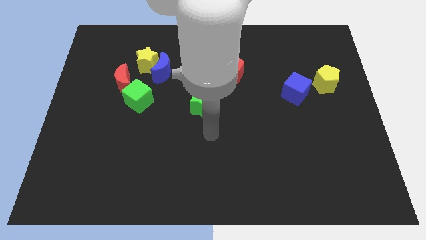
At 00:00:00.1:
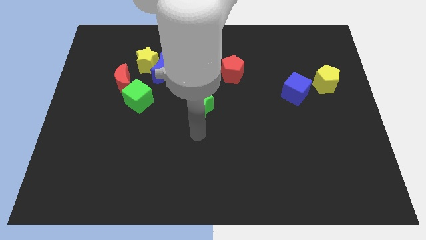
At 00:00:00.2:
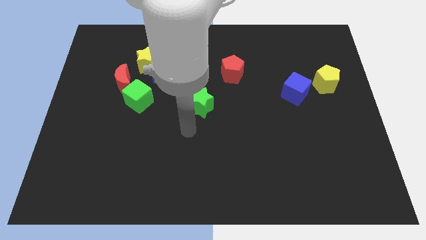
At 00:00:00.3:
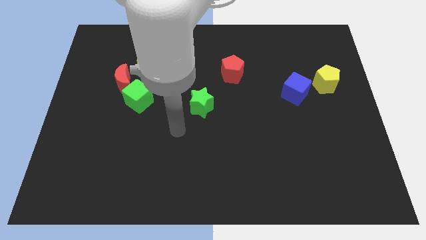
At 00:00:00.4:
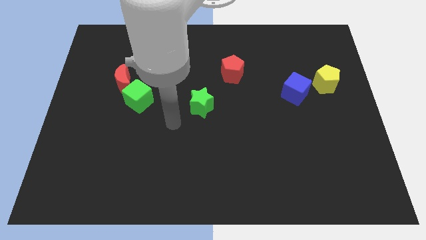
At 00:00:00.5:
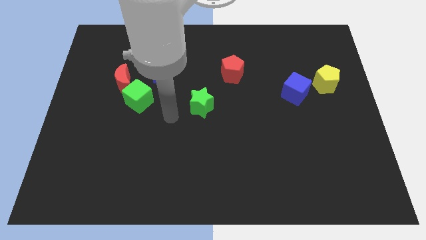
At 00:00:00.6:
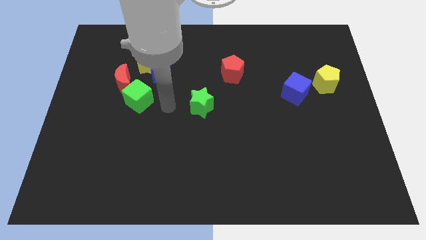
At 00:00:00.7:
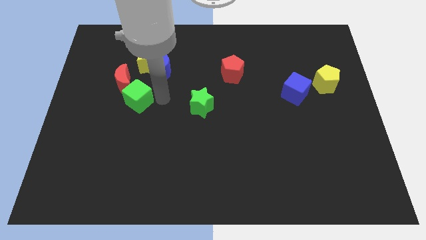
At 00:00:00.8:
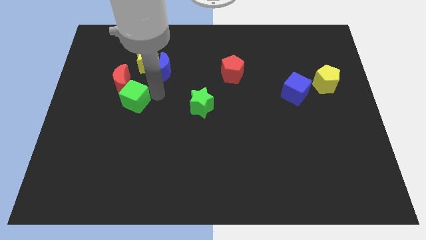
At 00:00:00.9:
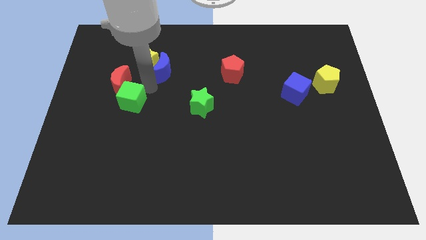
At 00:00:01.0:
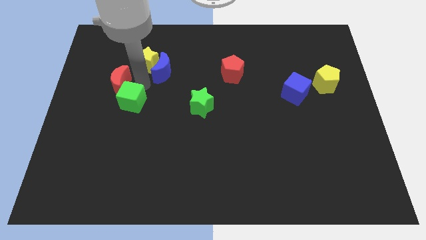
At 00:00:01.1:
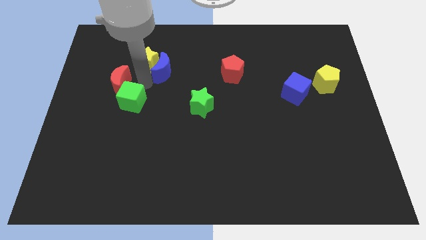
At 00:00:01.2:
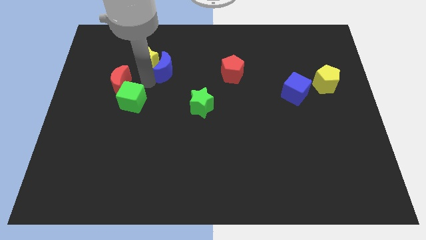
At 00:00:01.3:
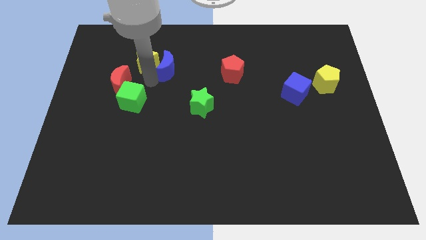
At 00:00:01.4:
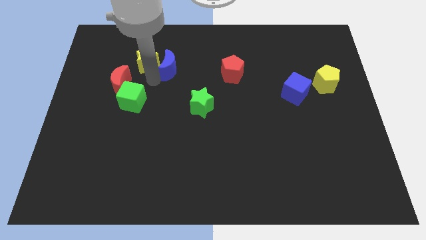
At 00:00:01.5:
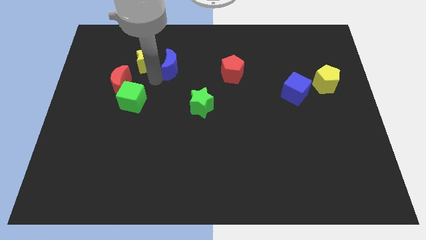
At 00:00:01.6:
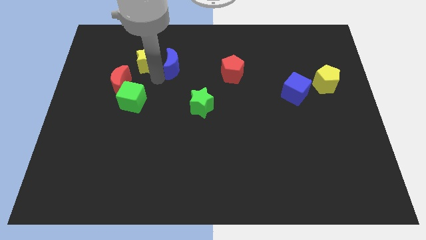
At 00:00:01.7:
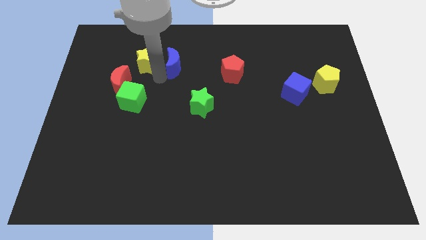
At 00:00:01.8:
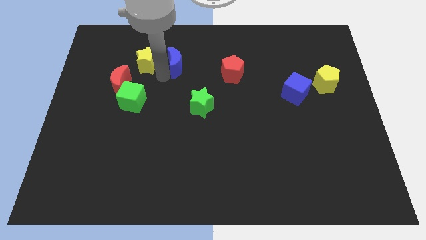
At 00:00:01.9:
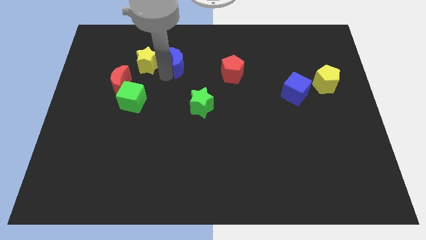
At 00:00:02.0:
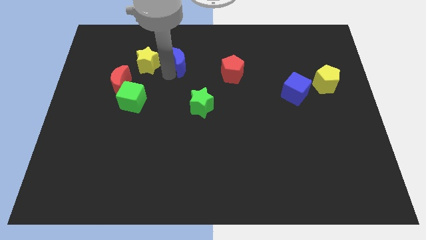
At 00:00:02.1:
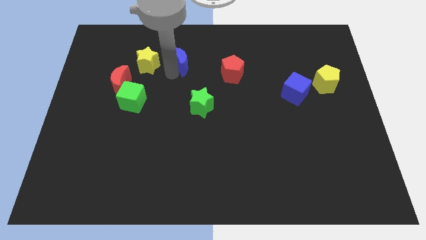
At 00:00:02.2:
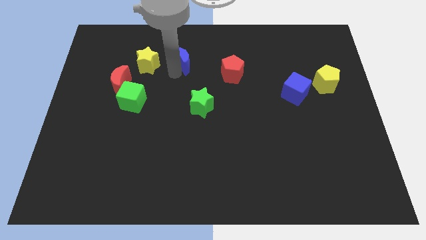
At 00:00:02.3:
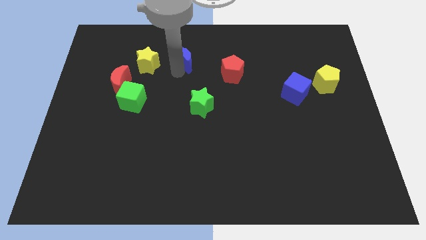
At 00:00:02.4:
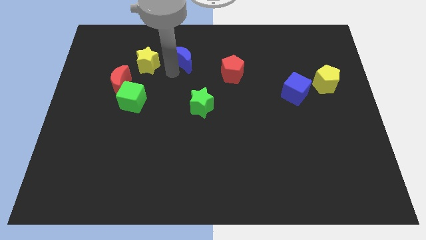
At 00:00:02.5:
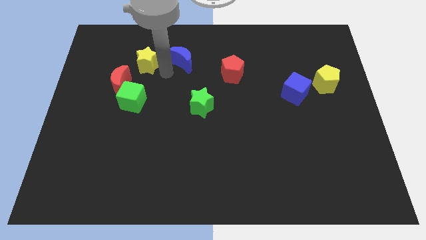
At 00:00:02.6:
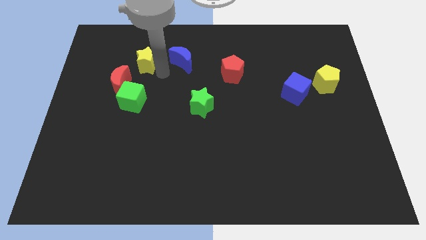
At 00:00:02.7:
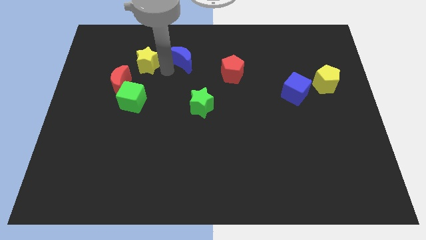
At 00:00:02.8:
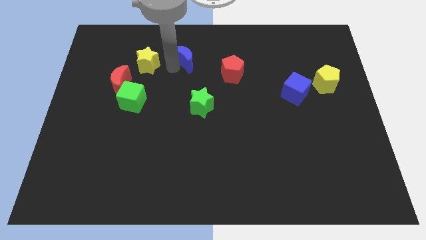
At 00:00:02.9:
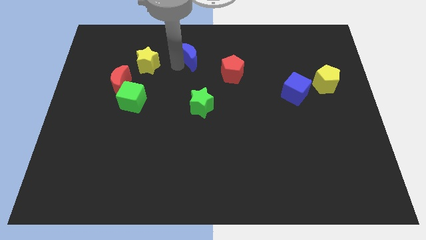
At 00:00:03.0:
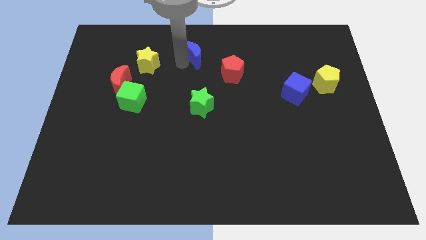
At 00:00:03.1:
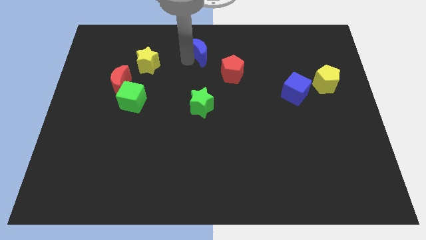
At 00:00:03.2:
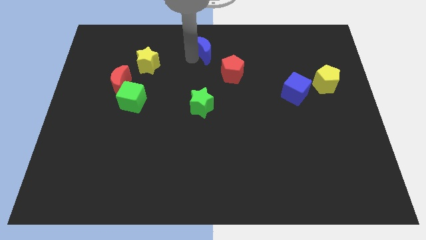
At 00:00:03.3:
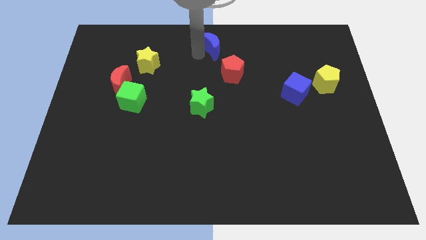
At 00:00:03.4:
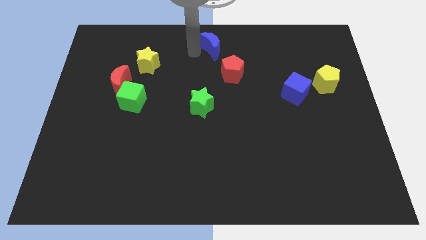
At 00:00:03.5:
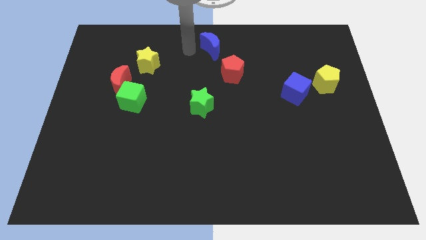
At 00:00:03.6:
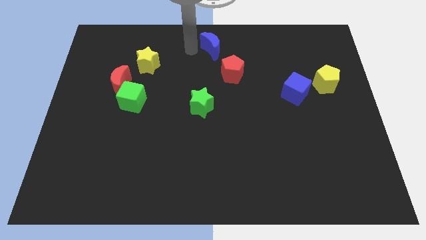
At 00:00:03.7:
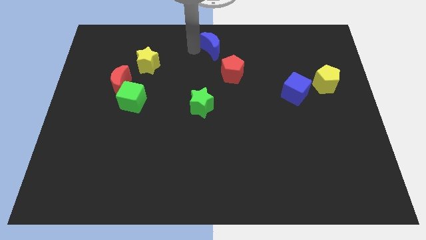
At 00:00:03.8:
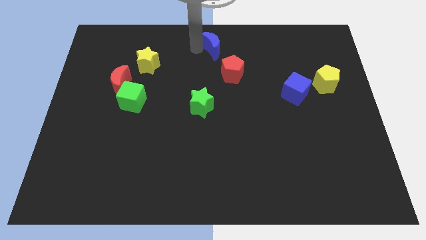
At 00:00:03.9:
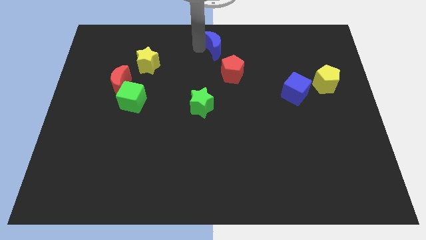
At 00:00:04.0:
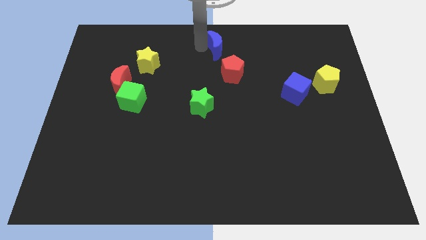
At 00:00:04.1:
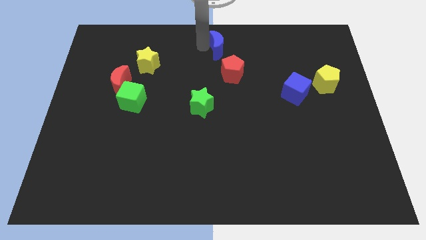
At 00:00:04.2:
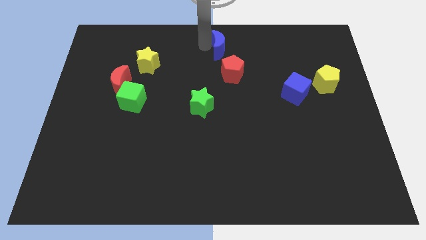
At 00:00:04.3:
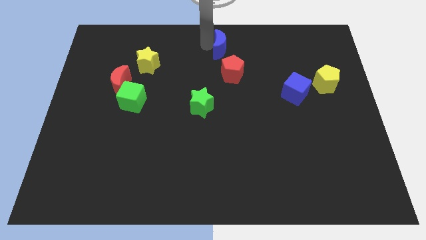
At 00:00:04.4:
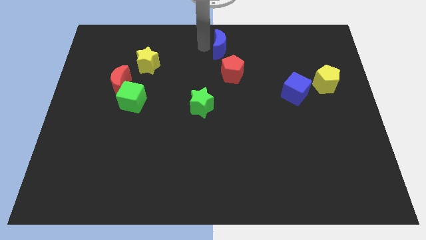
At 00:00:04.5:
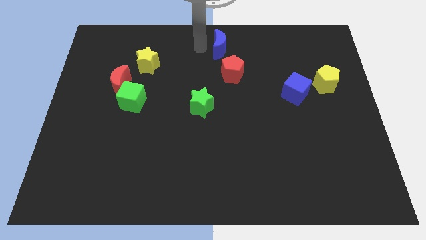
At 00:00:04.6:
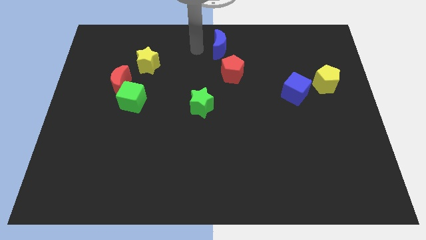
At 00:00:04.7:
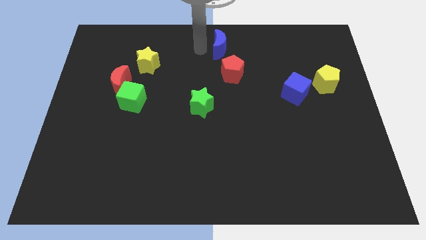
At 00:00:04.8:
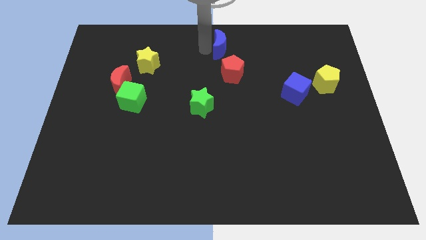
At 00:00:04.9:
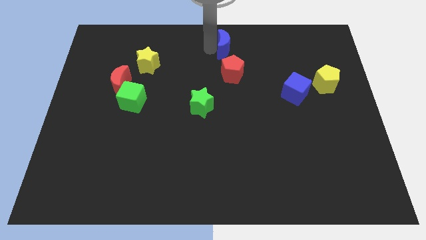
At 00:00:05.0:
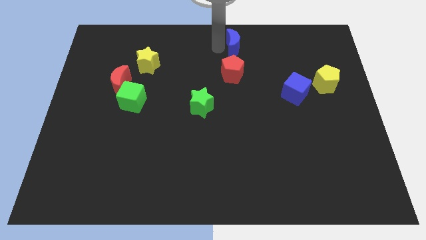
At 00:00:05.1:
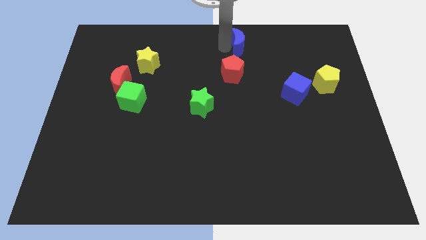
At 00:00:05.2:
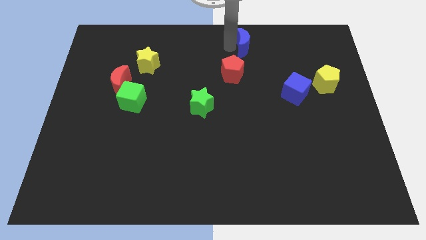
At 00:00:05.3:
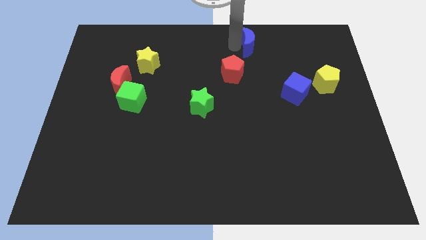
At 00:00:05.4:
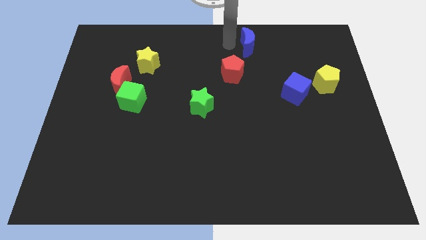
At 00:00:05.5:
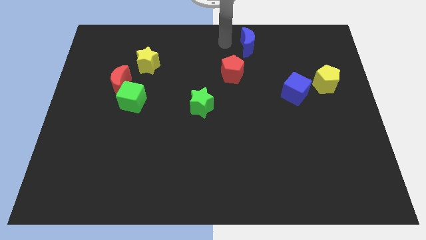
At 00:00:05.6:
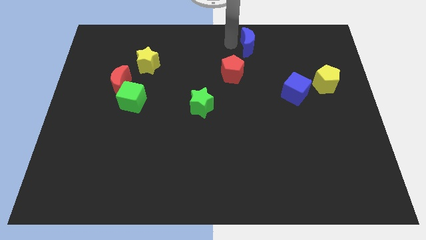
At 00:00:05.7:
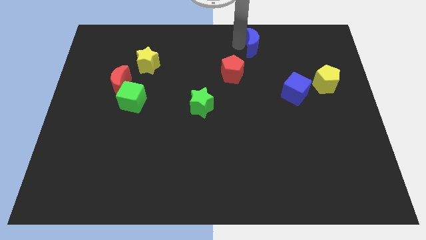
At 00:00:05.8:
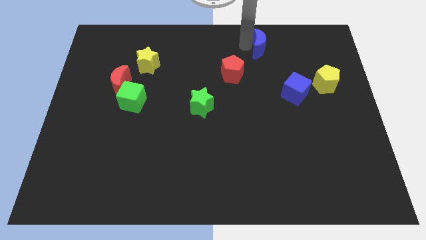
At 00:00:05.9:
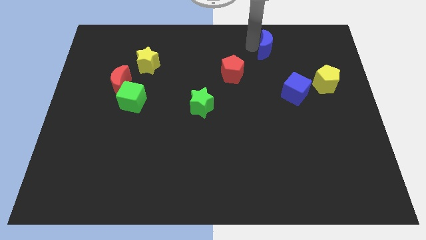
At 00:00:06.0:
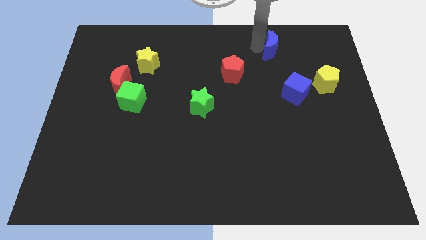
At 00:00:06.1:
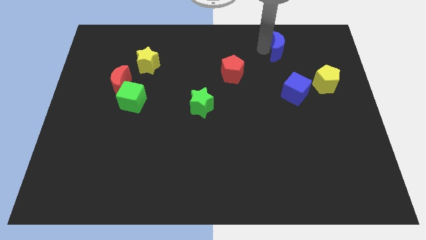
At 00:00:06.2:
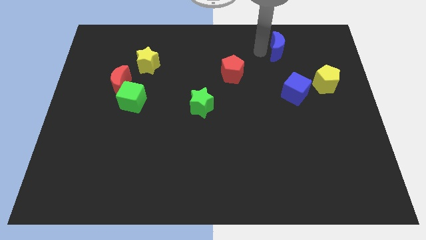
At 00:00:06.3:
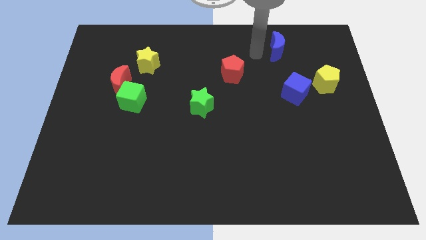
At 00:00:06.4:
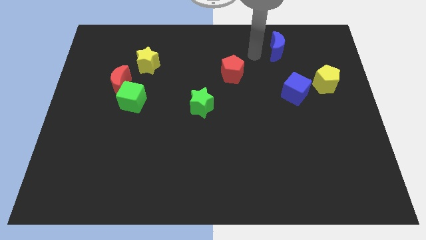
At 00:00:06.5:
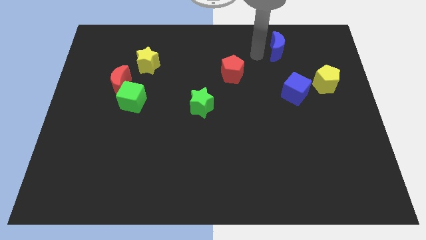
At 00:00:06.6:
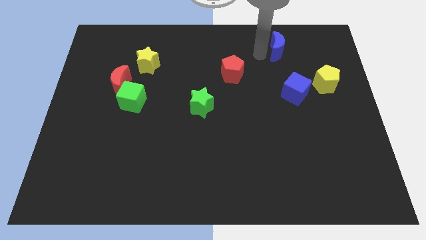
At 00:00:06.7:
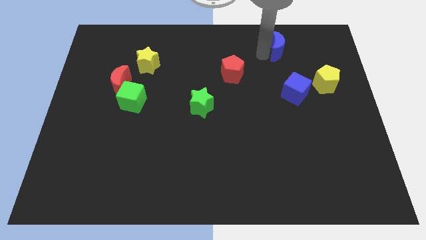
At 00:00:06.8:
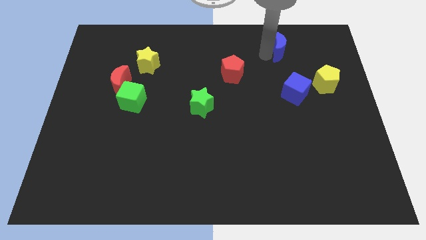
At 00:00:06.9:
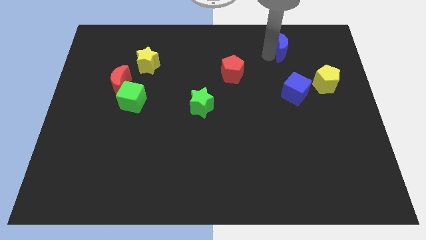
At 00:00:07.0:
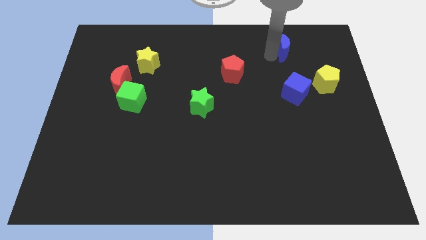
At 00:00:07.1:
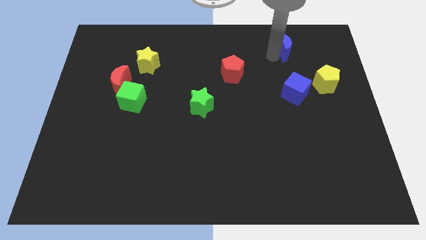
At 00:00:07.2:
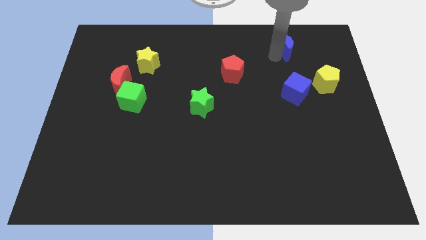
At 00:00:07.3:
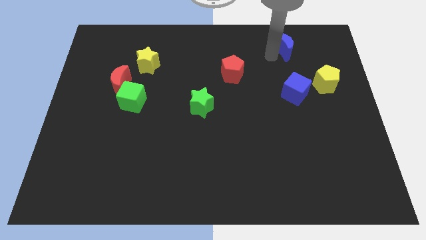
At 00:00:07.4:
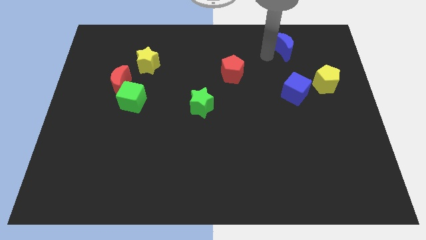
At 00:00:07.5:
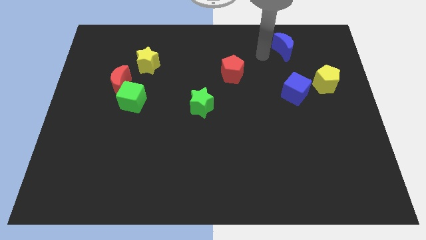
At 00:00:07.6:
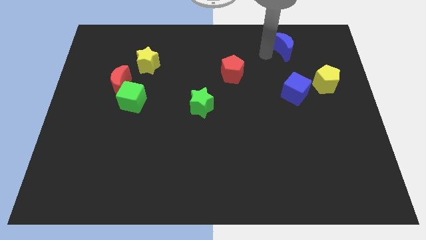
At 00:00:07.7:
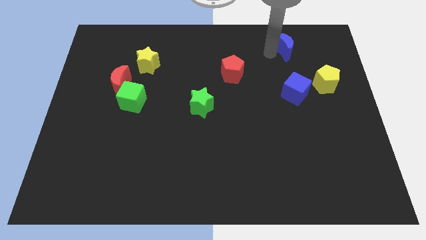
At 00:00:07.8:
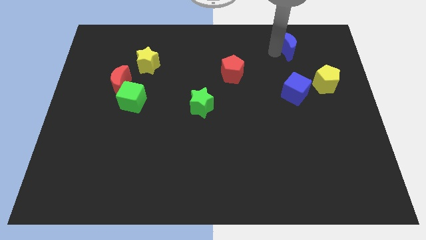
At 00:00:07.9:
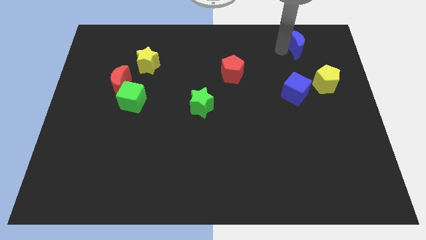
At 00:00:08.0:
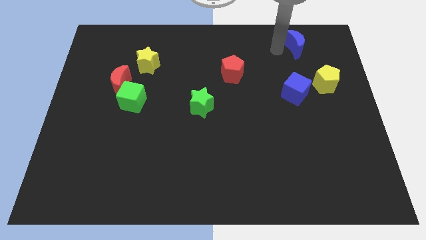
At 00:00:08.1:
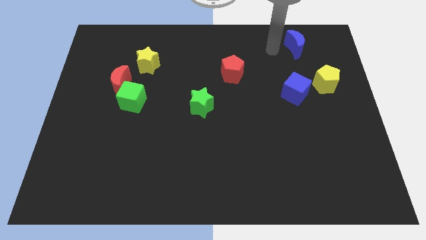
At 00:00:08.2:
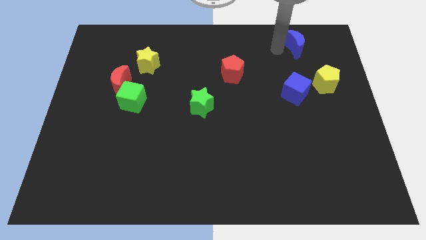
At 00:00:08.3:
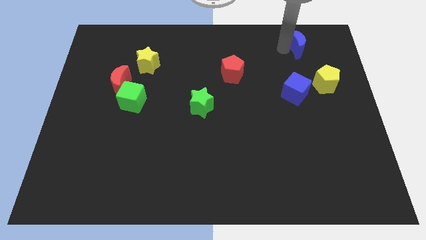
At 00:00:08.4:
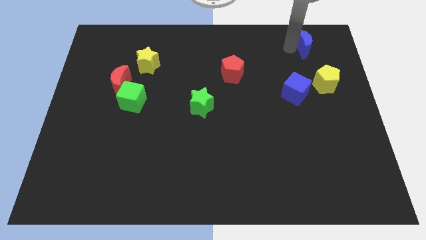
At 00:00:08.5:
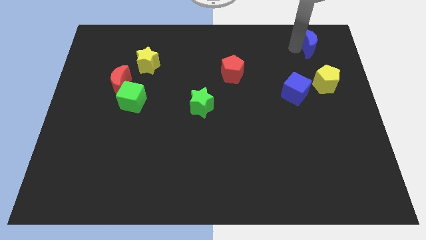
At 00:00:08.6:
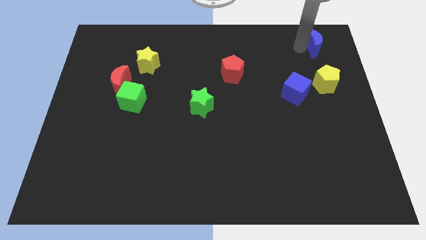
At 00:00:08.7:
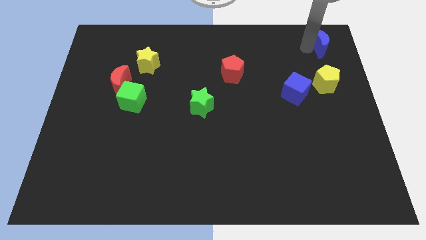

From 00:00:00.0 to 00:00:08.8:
put the blue moon to the top right of the board
